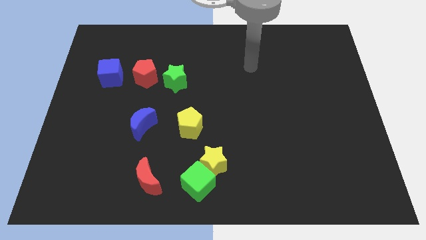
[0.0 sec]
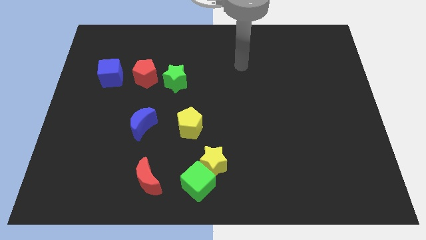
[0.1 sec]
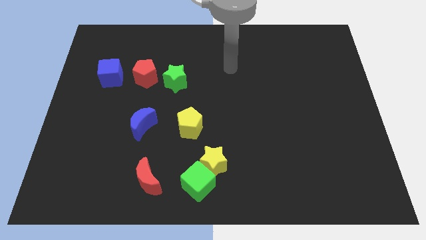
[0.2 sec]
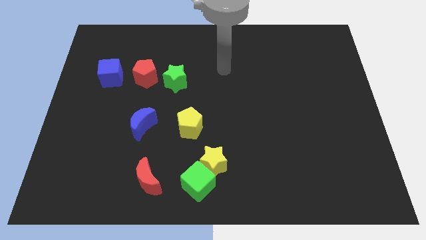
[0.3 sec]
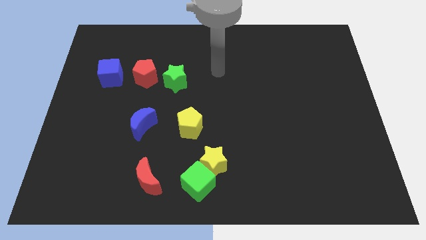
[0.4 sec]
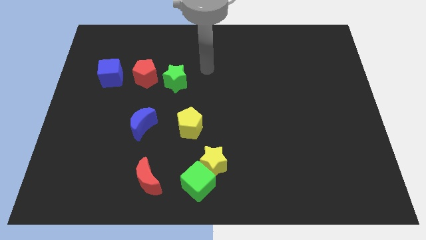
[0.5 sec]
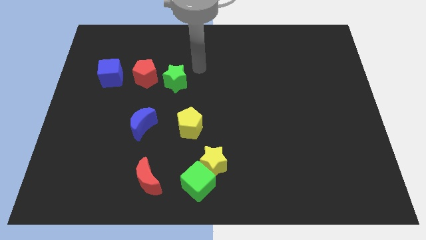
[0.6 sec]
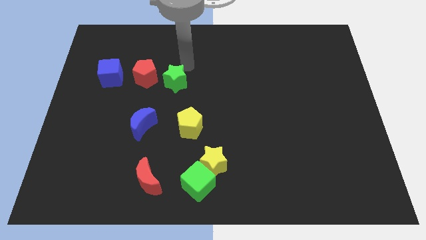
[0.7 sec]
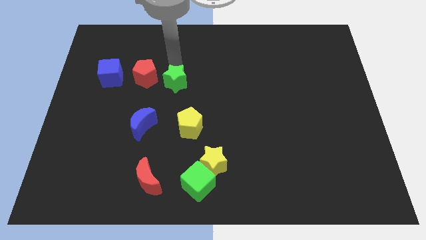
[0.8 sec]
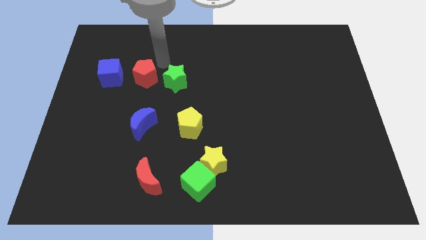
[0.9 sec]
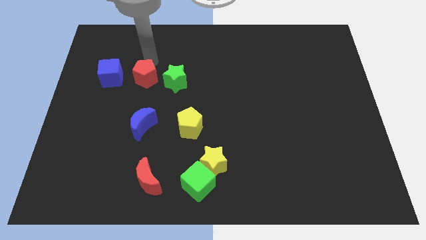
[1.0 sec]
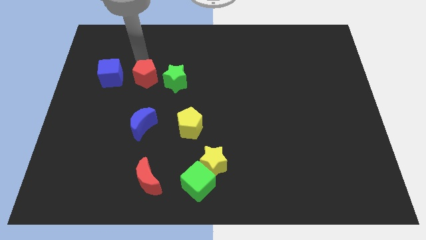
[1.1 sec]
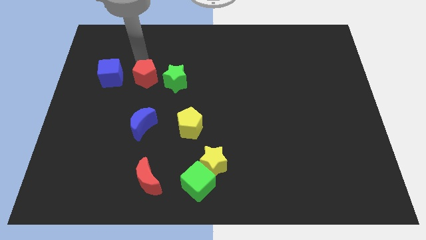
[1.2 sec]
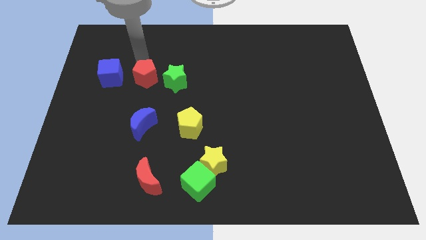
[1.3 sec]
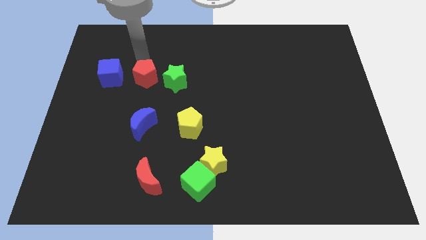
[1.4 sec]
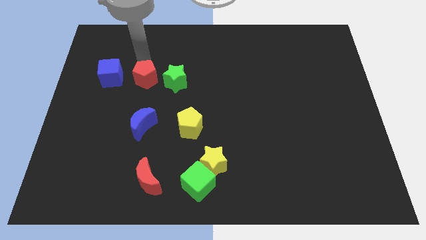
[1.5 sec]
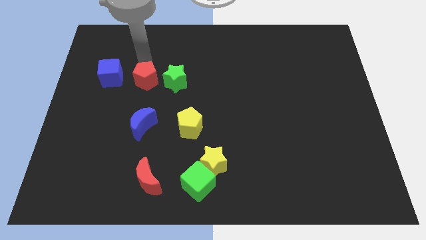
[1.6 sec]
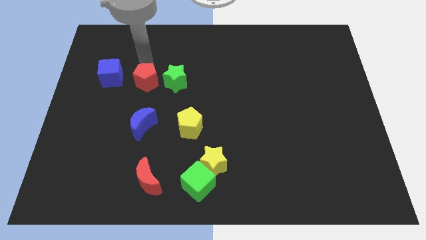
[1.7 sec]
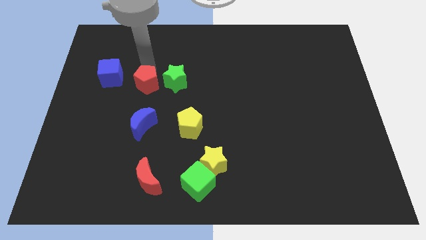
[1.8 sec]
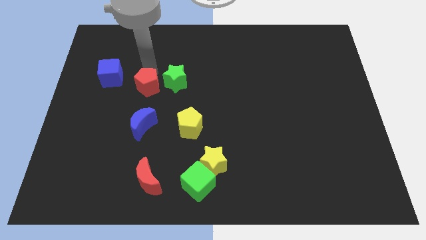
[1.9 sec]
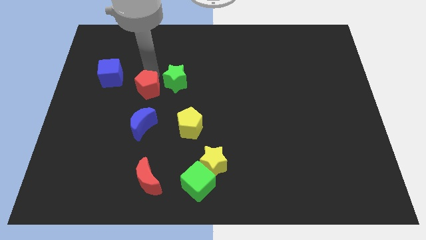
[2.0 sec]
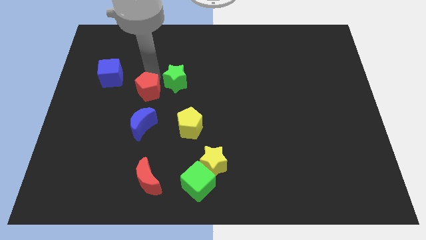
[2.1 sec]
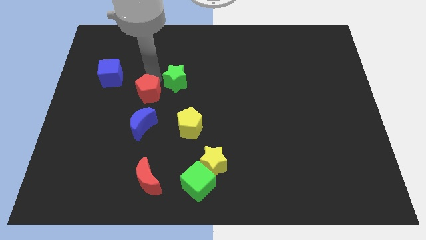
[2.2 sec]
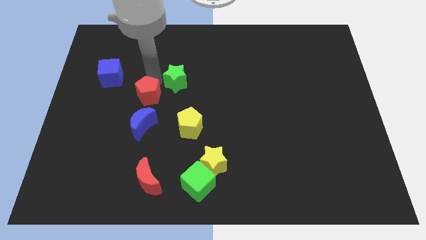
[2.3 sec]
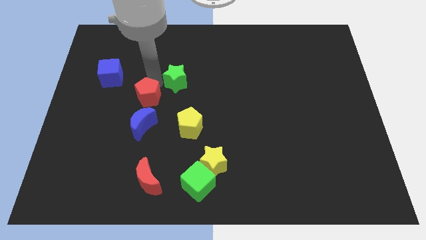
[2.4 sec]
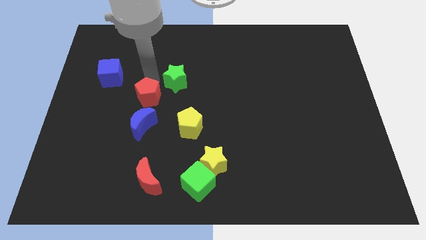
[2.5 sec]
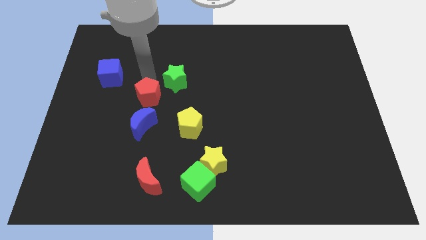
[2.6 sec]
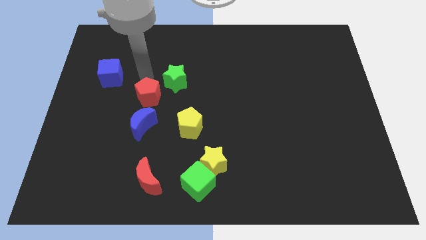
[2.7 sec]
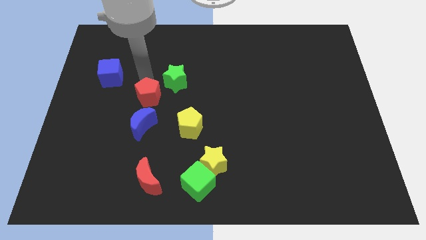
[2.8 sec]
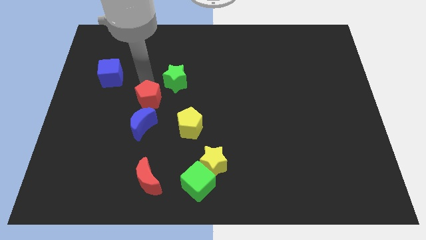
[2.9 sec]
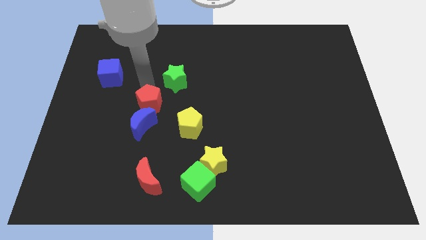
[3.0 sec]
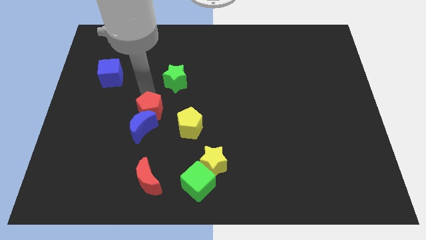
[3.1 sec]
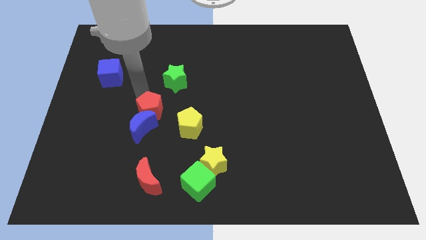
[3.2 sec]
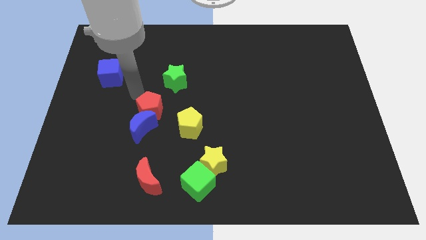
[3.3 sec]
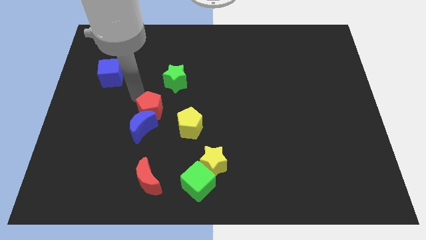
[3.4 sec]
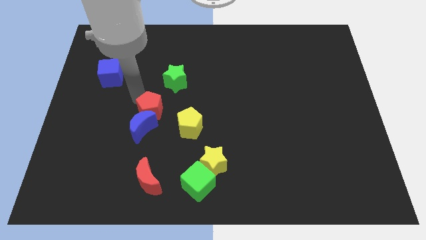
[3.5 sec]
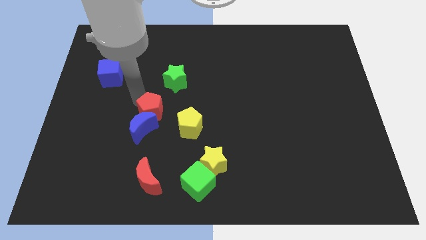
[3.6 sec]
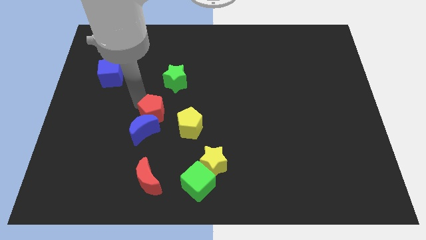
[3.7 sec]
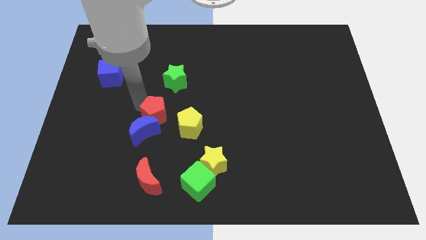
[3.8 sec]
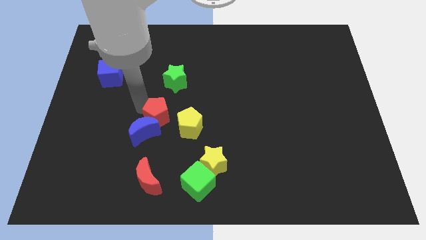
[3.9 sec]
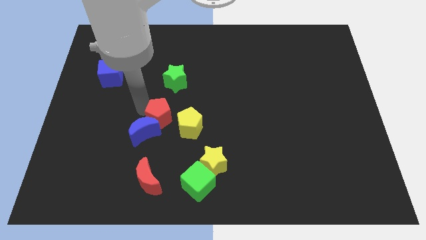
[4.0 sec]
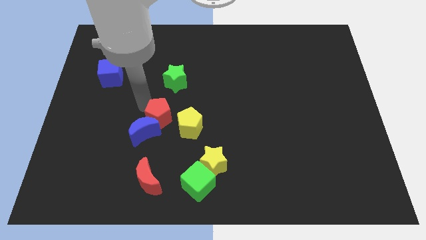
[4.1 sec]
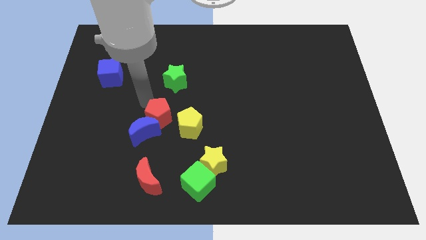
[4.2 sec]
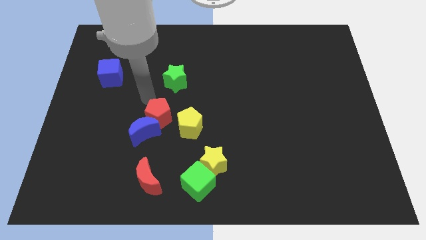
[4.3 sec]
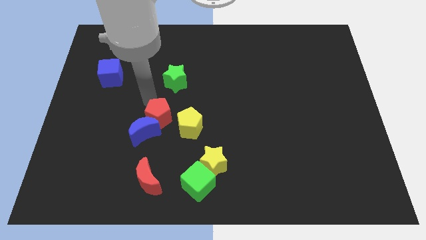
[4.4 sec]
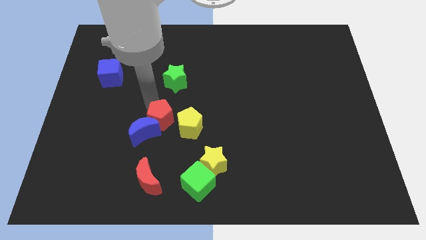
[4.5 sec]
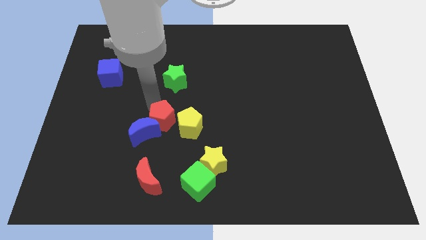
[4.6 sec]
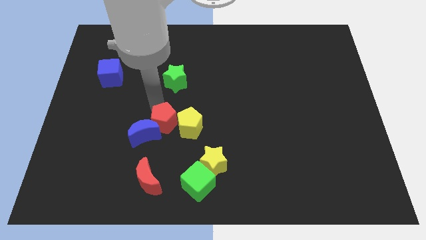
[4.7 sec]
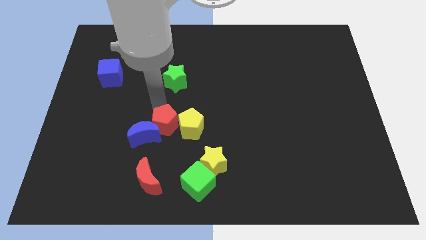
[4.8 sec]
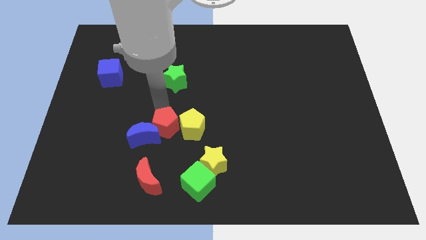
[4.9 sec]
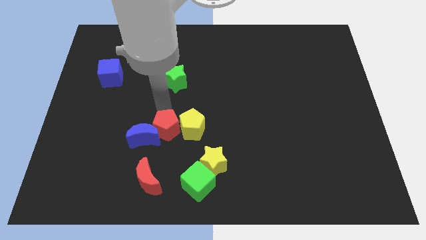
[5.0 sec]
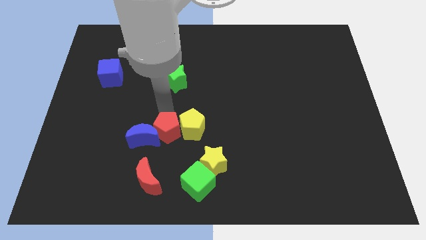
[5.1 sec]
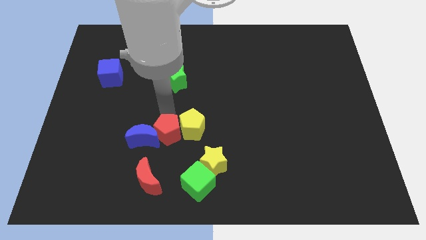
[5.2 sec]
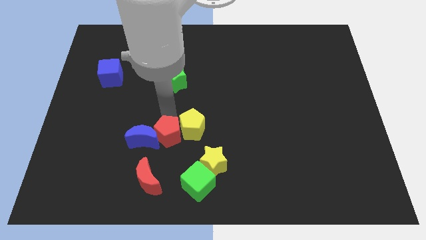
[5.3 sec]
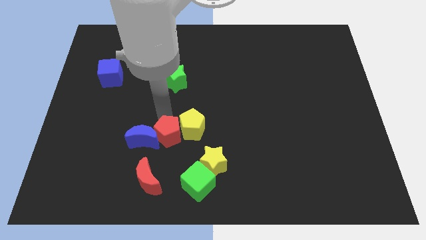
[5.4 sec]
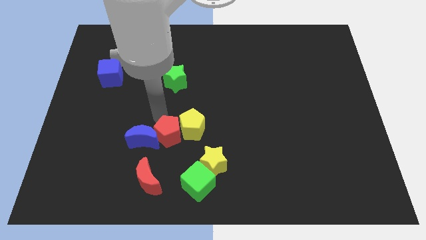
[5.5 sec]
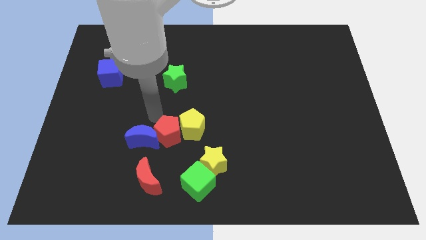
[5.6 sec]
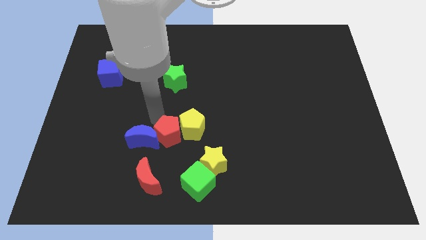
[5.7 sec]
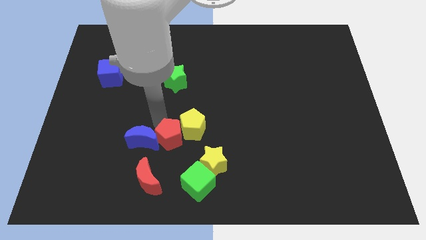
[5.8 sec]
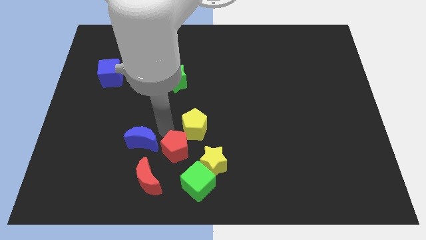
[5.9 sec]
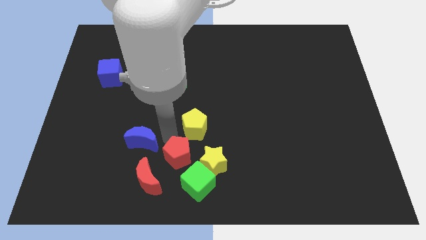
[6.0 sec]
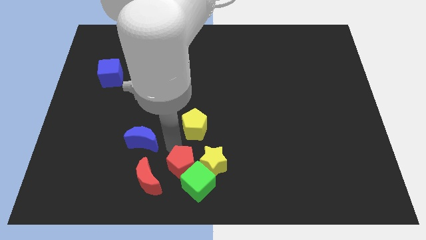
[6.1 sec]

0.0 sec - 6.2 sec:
slide the red pentagon close to the green cube

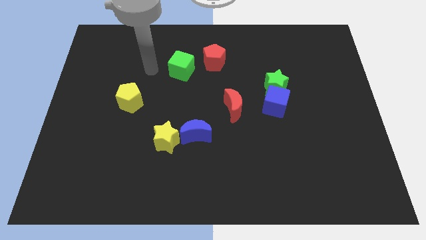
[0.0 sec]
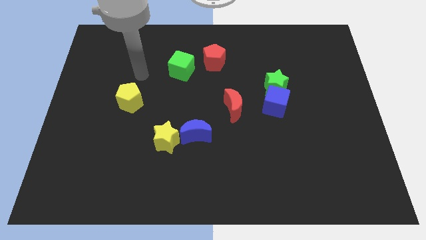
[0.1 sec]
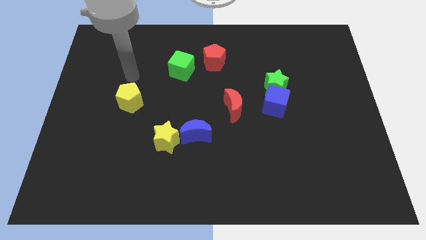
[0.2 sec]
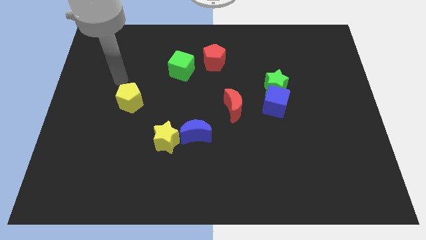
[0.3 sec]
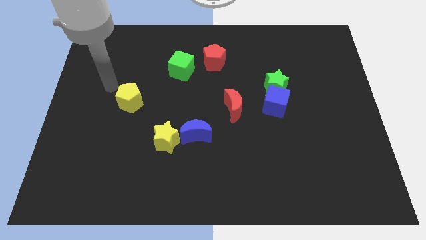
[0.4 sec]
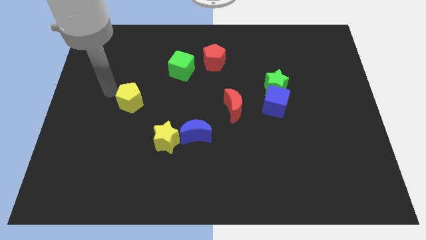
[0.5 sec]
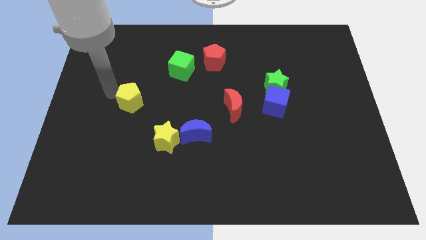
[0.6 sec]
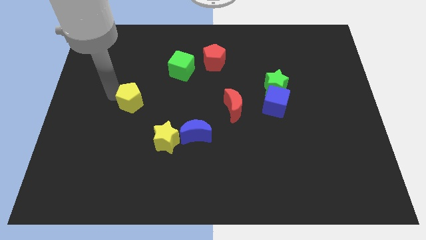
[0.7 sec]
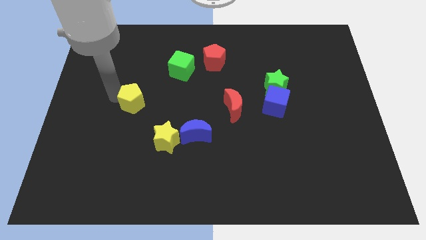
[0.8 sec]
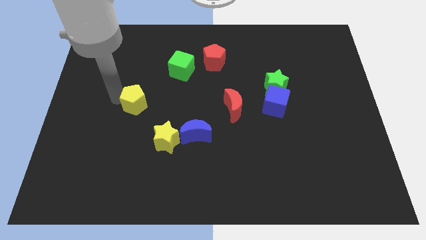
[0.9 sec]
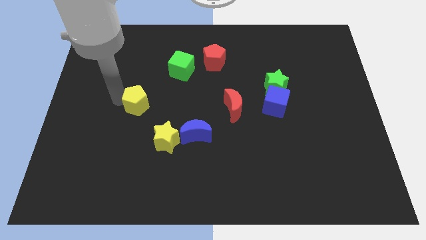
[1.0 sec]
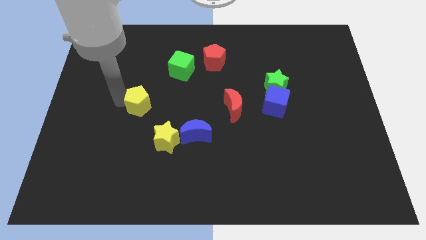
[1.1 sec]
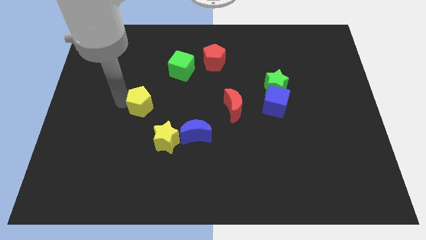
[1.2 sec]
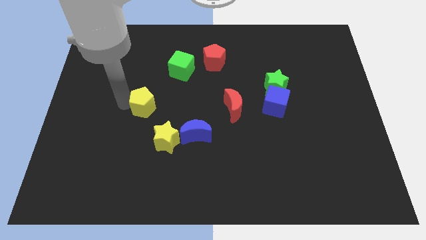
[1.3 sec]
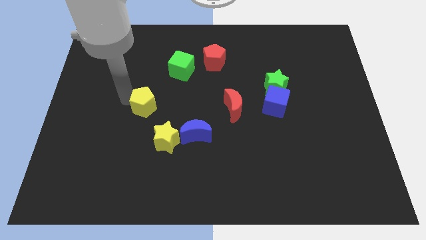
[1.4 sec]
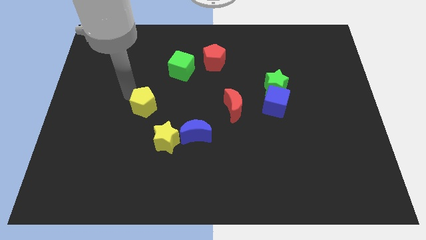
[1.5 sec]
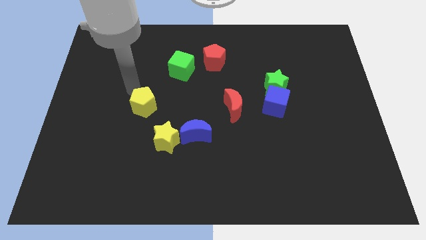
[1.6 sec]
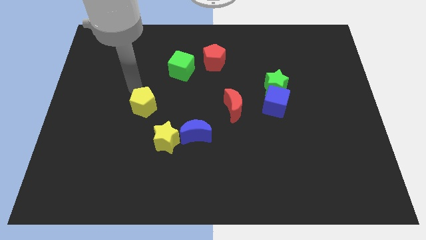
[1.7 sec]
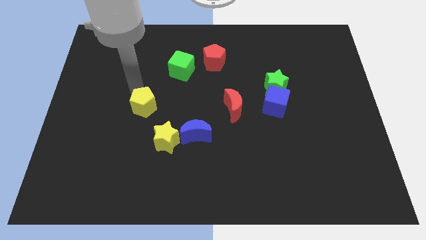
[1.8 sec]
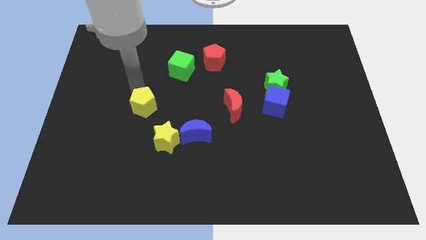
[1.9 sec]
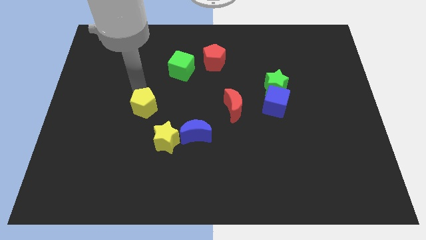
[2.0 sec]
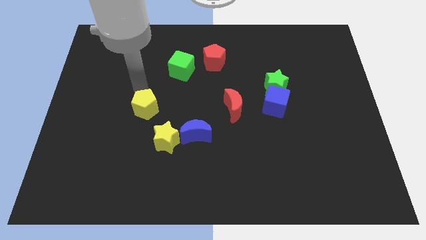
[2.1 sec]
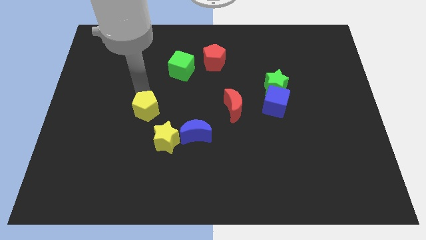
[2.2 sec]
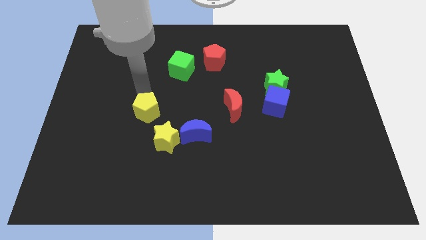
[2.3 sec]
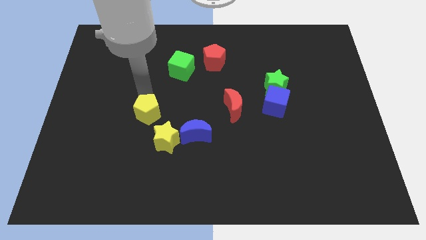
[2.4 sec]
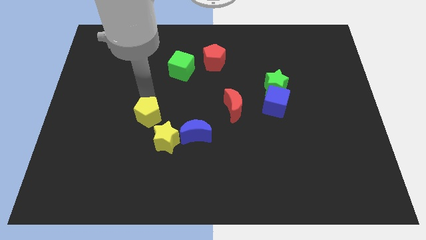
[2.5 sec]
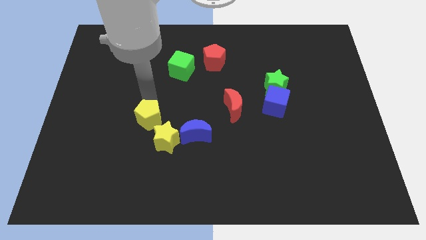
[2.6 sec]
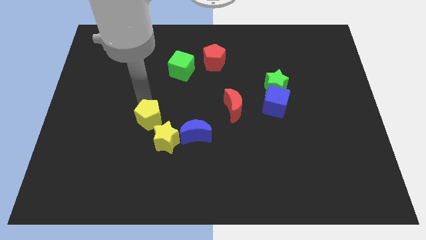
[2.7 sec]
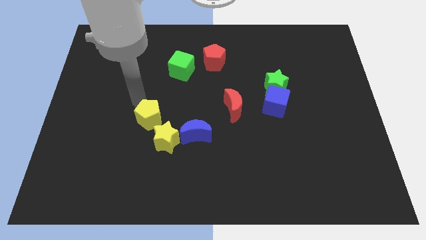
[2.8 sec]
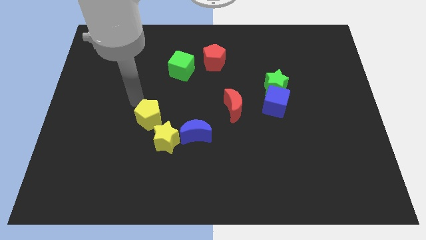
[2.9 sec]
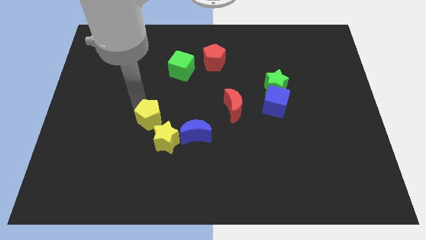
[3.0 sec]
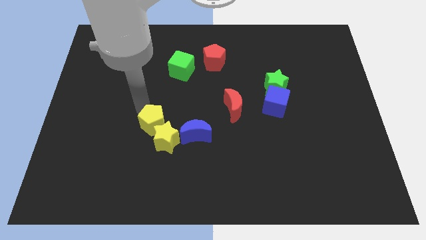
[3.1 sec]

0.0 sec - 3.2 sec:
put the yellow pentagon to the yellow star
